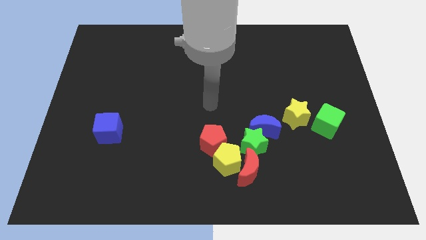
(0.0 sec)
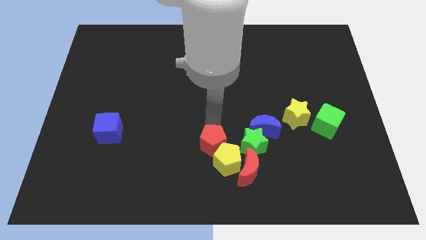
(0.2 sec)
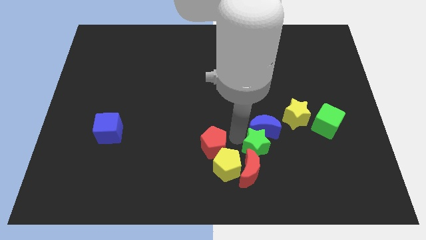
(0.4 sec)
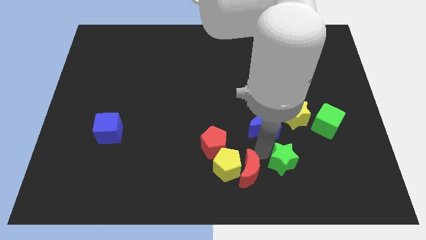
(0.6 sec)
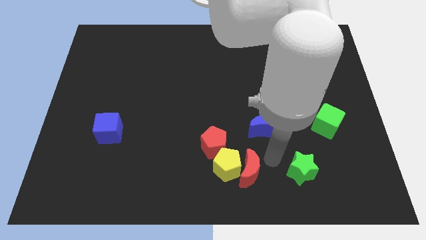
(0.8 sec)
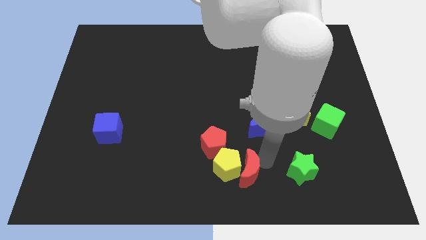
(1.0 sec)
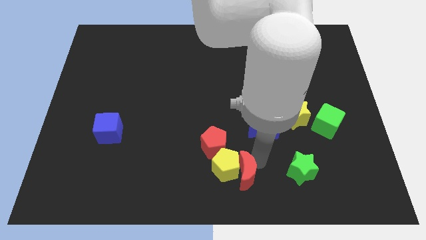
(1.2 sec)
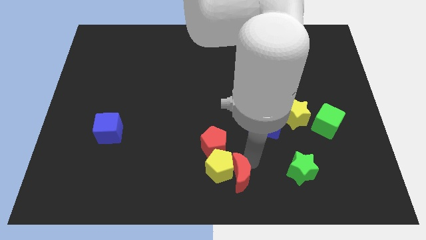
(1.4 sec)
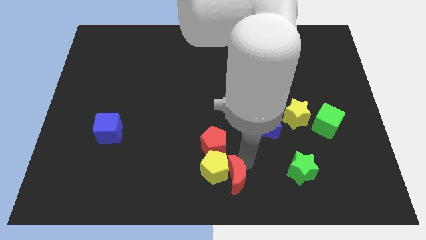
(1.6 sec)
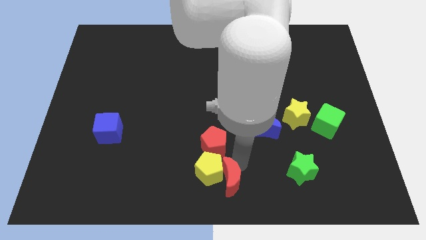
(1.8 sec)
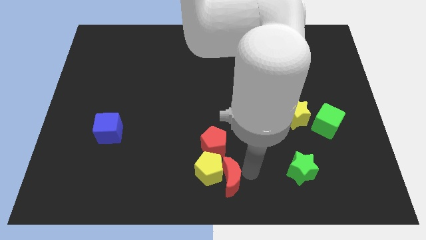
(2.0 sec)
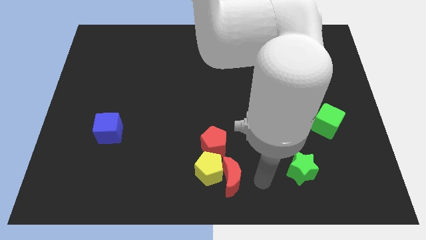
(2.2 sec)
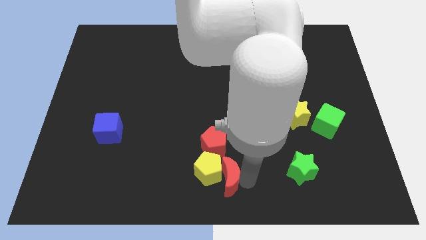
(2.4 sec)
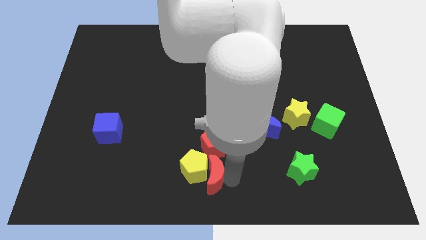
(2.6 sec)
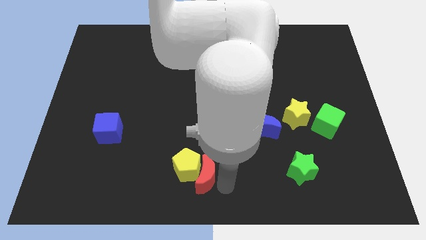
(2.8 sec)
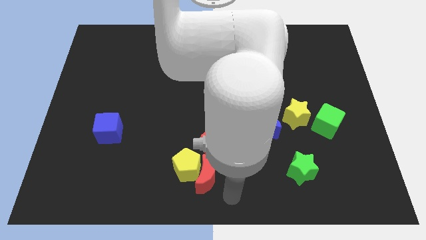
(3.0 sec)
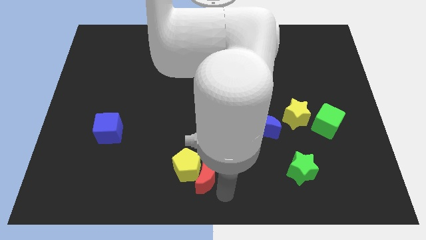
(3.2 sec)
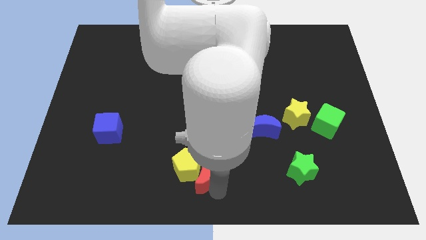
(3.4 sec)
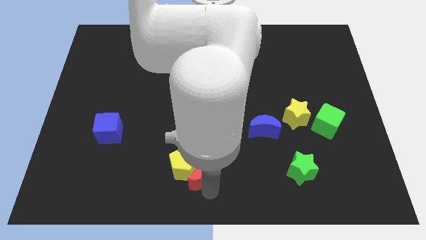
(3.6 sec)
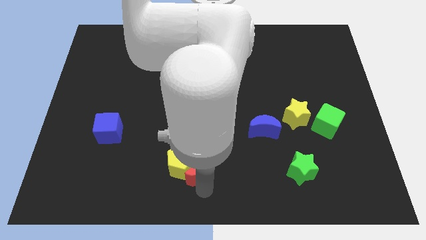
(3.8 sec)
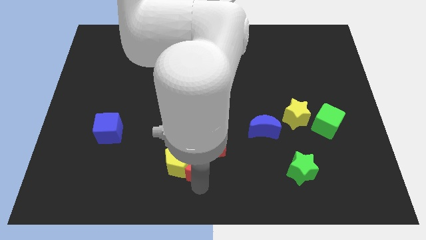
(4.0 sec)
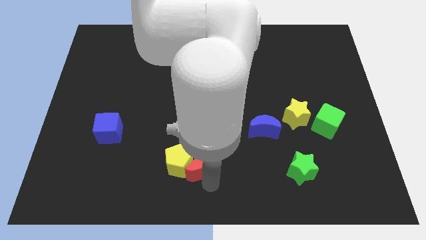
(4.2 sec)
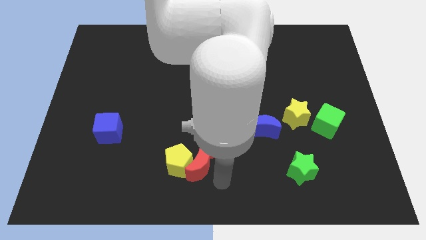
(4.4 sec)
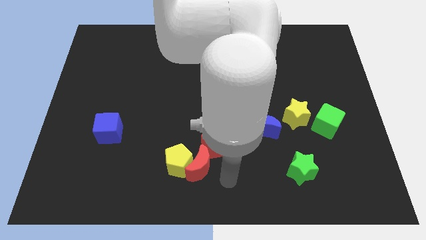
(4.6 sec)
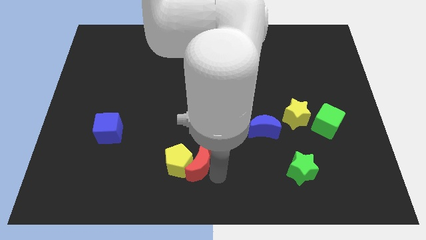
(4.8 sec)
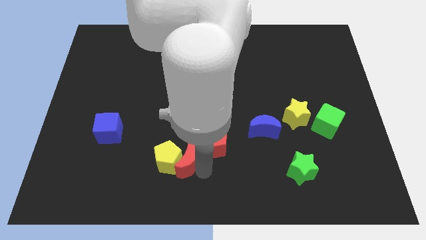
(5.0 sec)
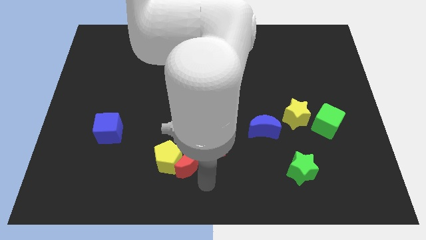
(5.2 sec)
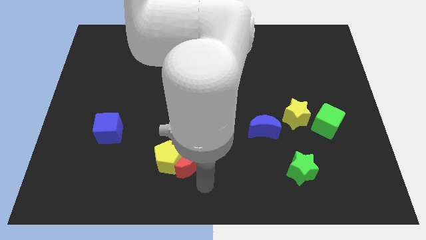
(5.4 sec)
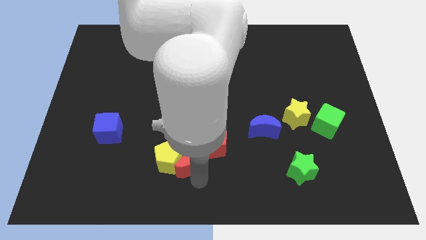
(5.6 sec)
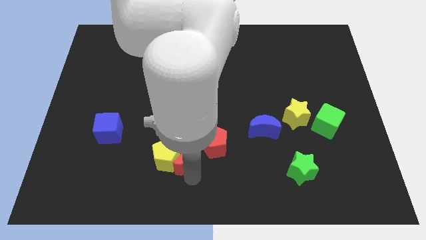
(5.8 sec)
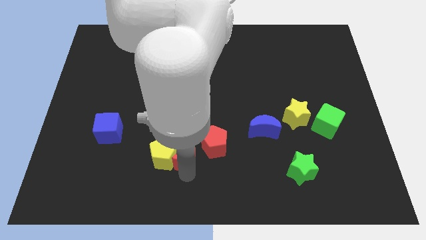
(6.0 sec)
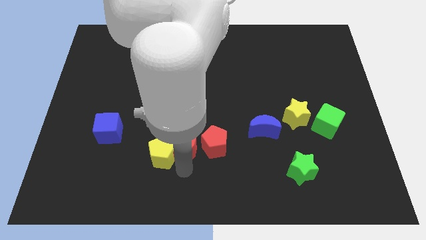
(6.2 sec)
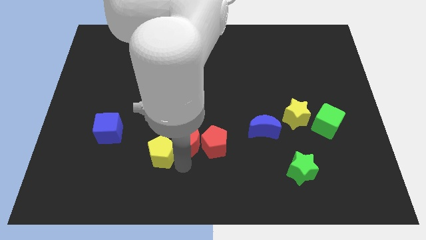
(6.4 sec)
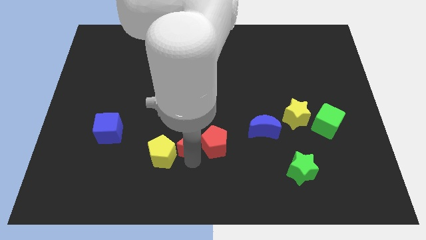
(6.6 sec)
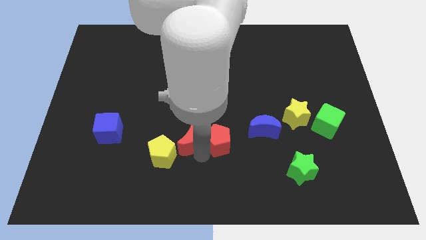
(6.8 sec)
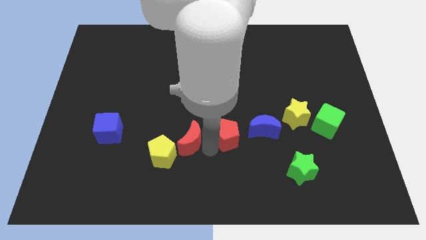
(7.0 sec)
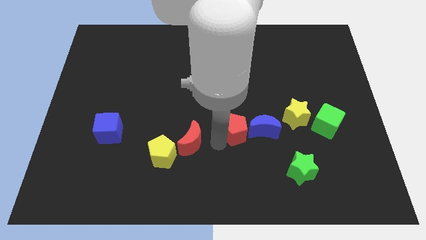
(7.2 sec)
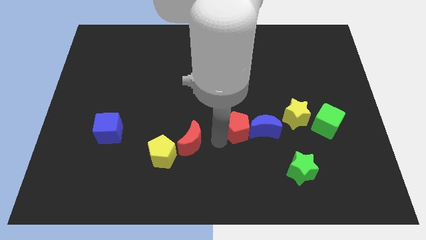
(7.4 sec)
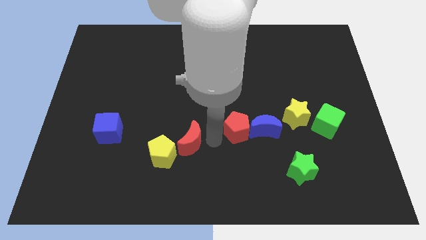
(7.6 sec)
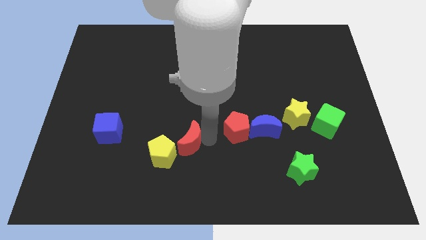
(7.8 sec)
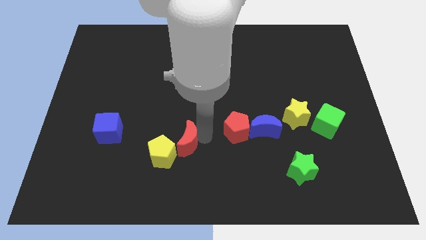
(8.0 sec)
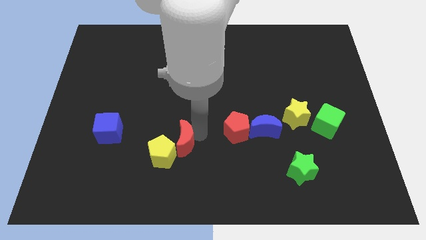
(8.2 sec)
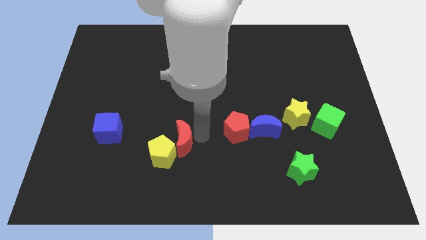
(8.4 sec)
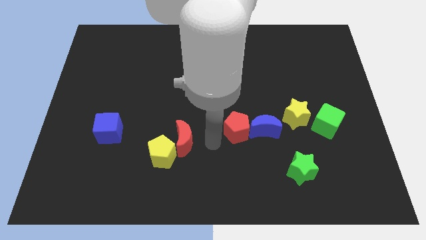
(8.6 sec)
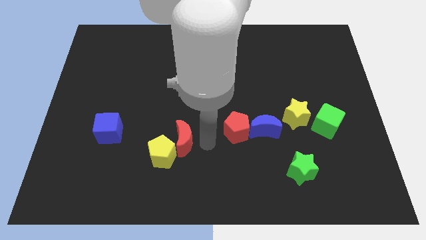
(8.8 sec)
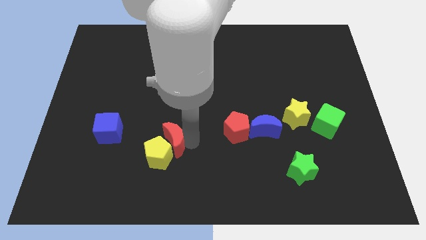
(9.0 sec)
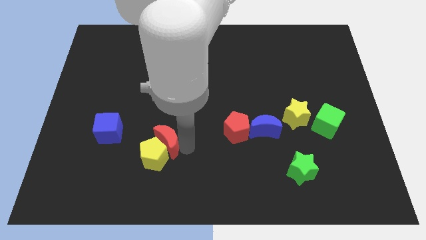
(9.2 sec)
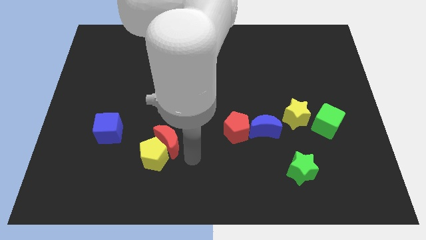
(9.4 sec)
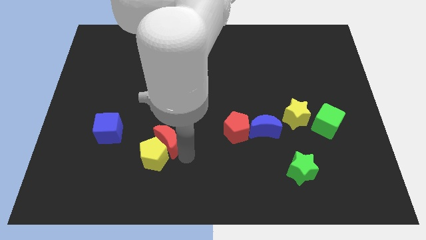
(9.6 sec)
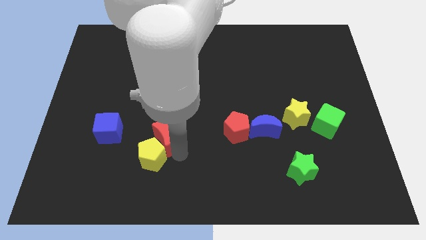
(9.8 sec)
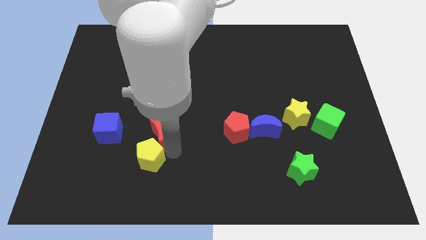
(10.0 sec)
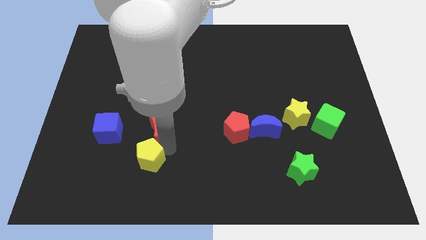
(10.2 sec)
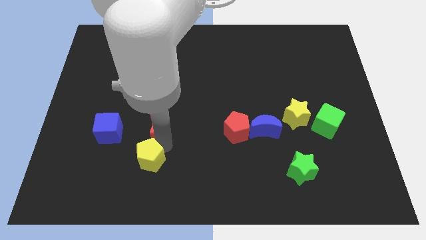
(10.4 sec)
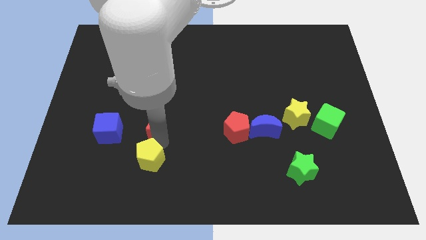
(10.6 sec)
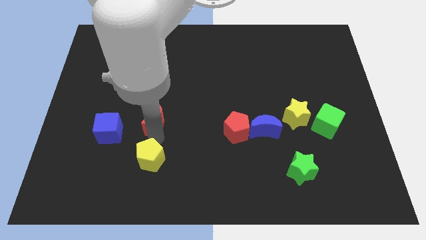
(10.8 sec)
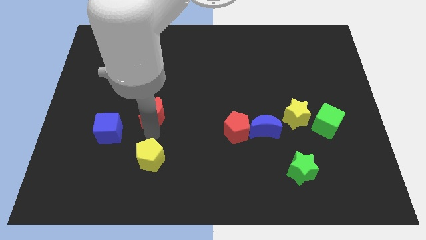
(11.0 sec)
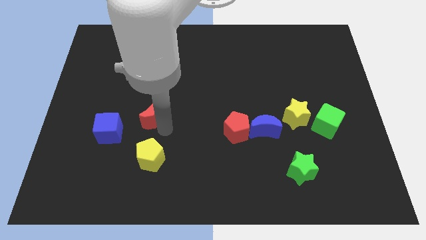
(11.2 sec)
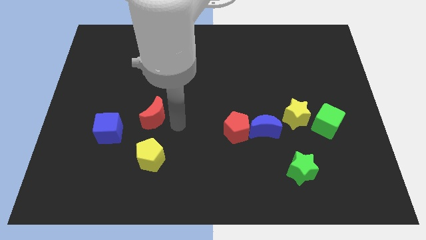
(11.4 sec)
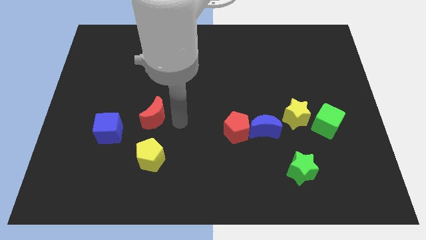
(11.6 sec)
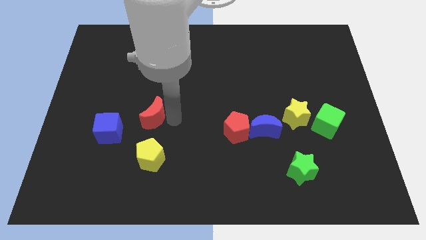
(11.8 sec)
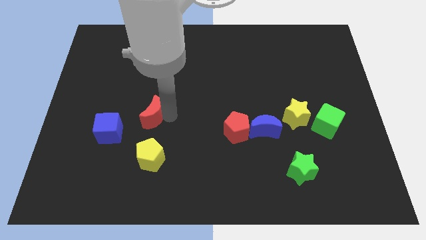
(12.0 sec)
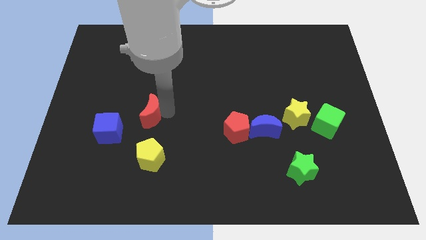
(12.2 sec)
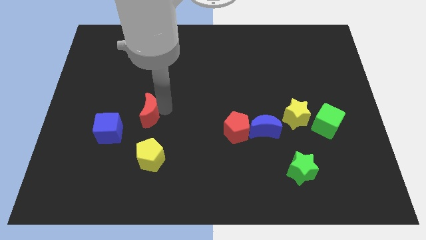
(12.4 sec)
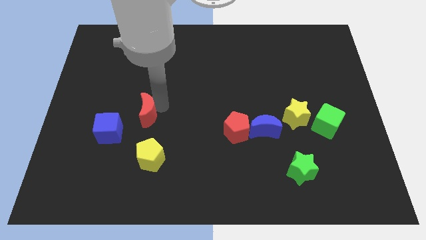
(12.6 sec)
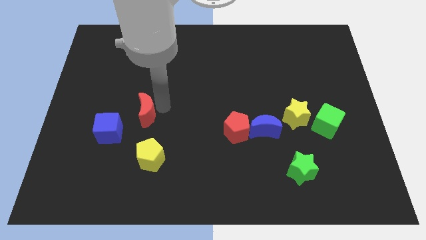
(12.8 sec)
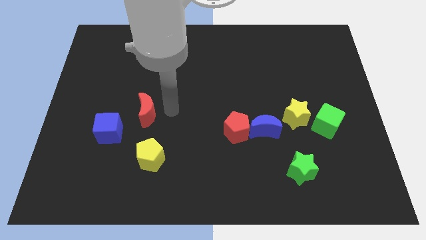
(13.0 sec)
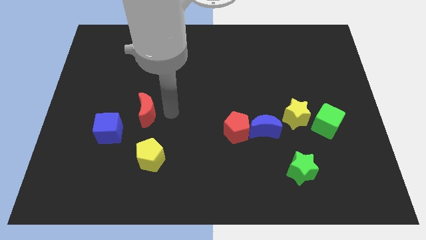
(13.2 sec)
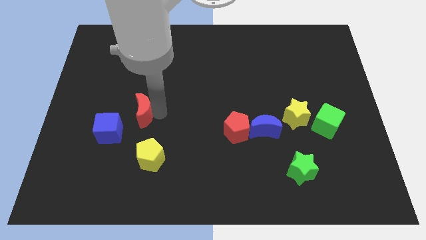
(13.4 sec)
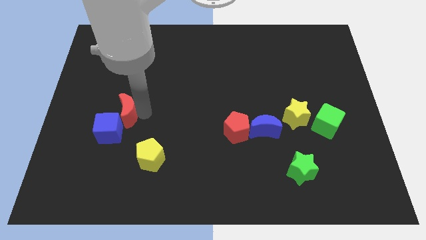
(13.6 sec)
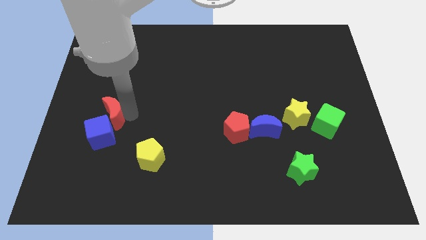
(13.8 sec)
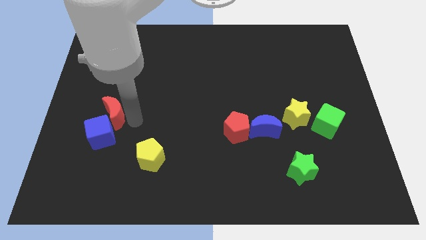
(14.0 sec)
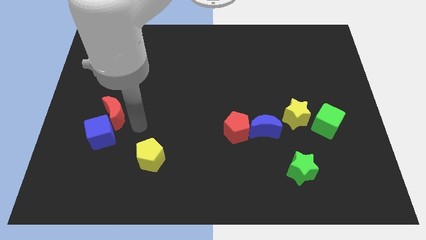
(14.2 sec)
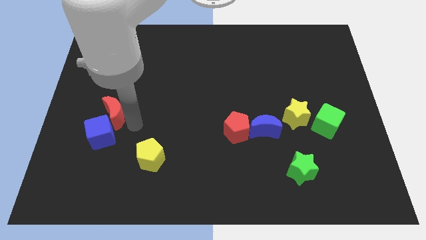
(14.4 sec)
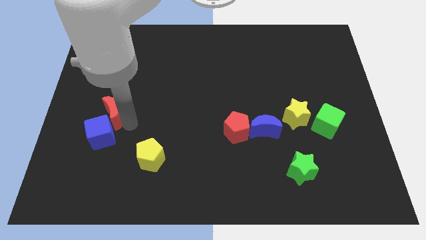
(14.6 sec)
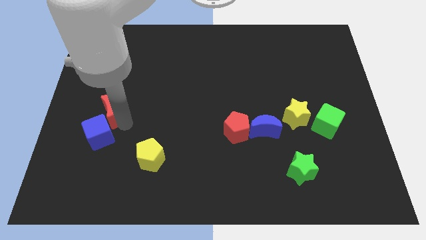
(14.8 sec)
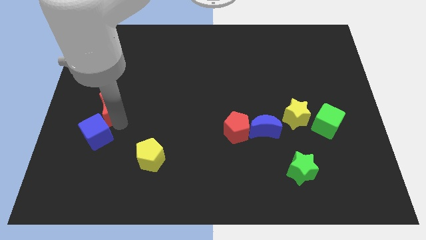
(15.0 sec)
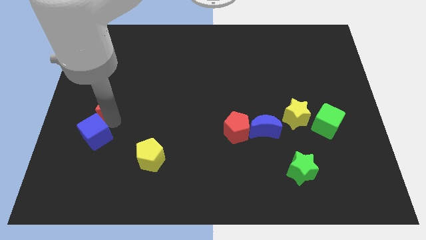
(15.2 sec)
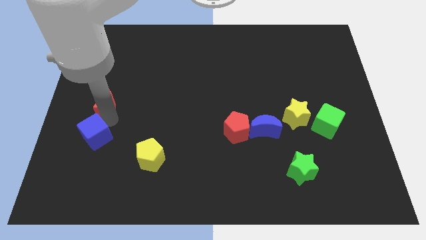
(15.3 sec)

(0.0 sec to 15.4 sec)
push the red moon to the center left
